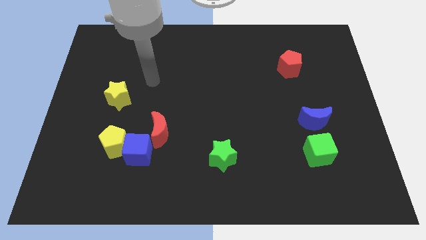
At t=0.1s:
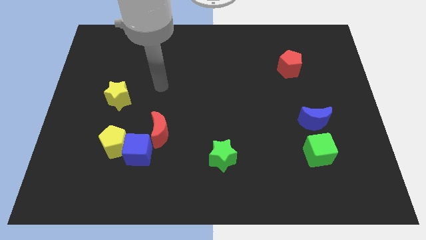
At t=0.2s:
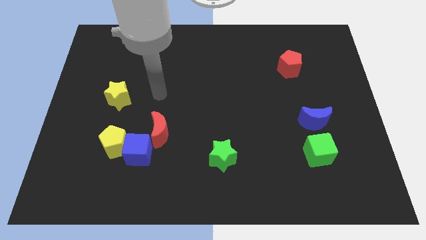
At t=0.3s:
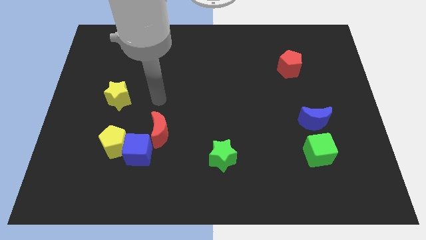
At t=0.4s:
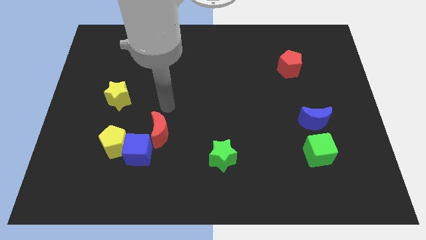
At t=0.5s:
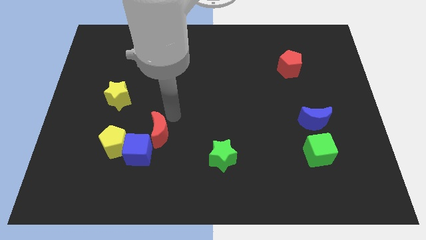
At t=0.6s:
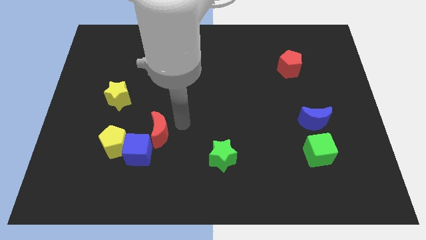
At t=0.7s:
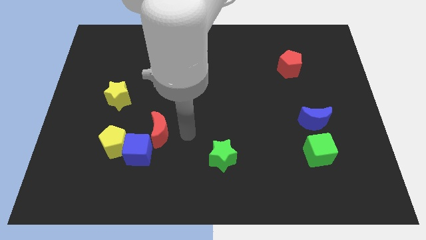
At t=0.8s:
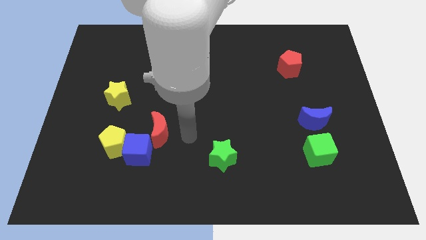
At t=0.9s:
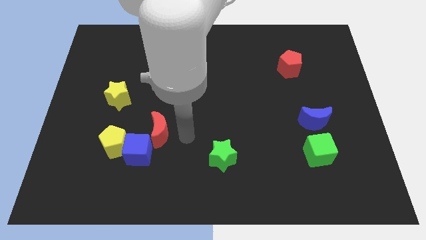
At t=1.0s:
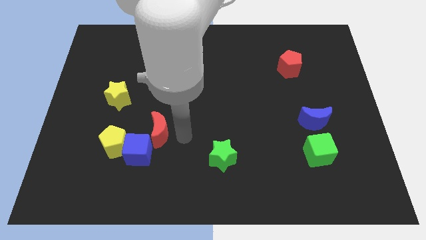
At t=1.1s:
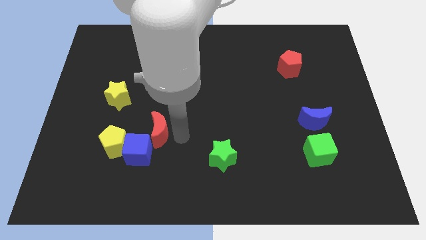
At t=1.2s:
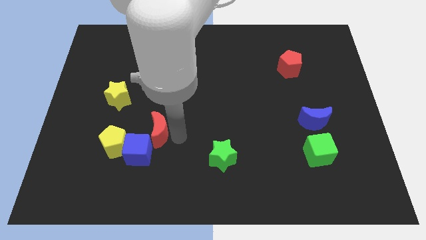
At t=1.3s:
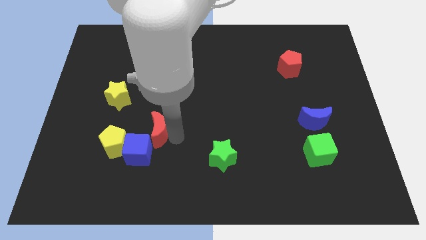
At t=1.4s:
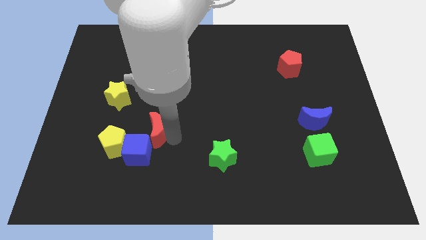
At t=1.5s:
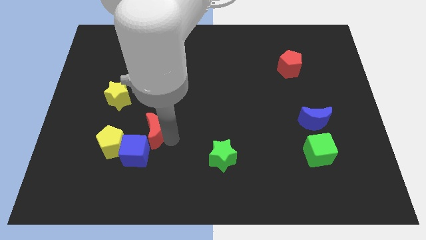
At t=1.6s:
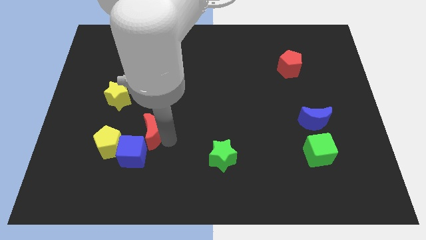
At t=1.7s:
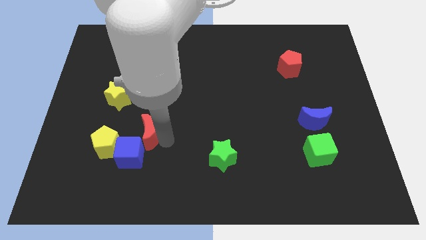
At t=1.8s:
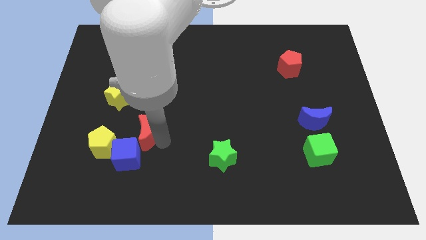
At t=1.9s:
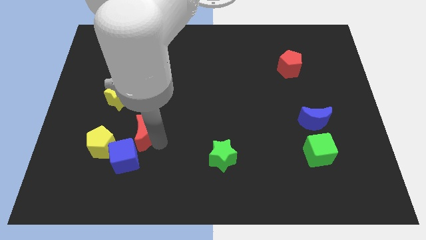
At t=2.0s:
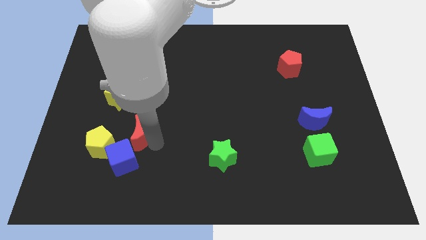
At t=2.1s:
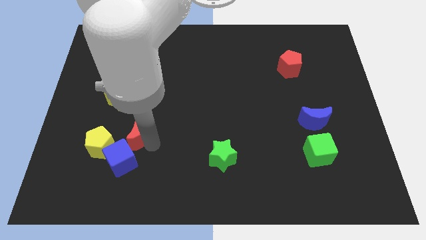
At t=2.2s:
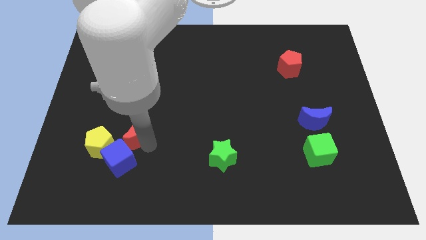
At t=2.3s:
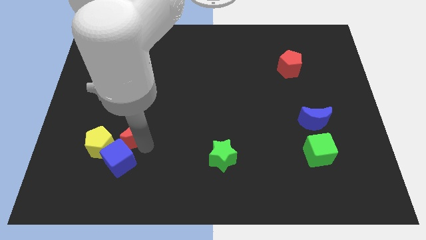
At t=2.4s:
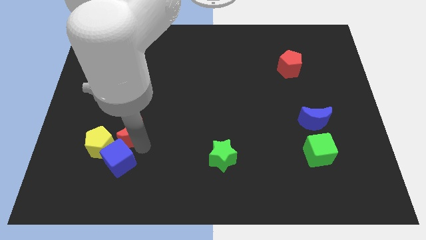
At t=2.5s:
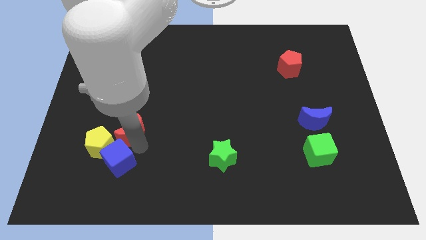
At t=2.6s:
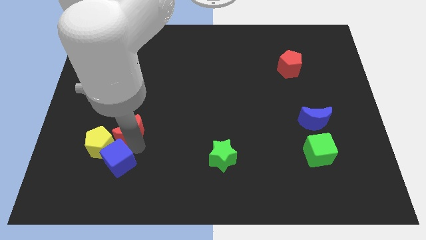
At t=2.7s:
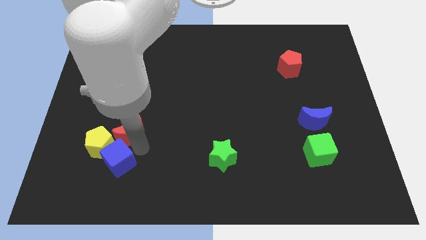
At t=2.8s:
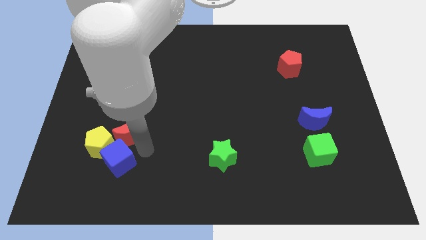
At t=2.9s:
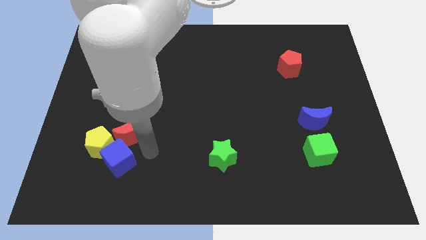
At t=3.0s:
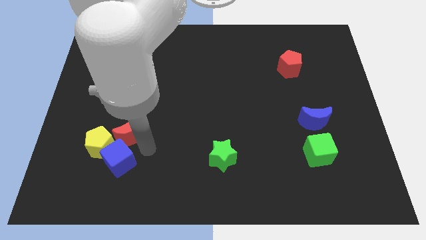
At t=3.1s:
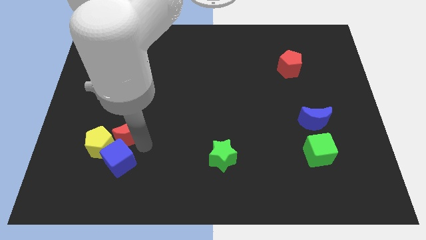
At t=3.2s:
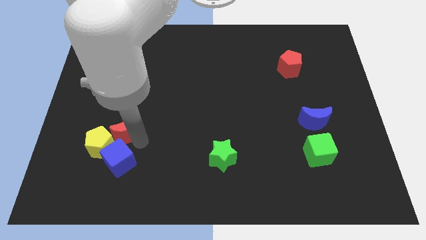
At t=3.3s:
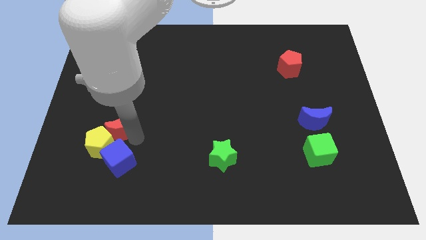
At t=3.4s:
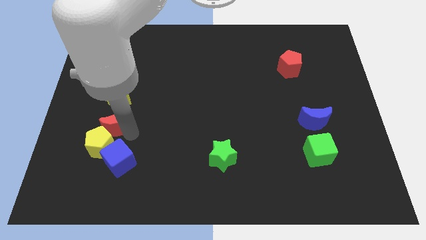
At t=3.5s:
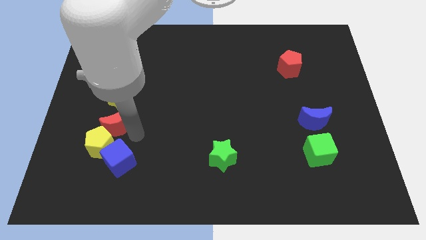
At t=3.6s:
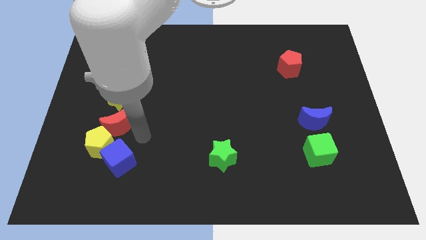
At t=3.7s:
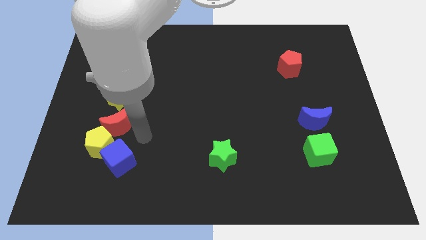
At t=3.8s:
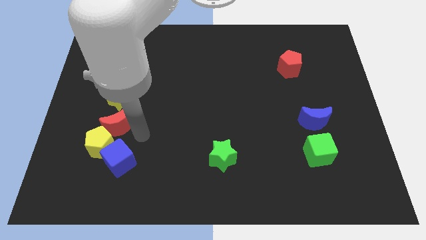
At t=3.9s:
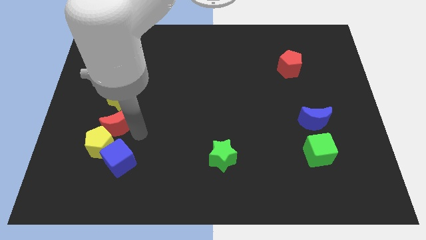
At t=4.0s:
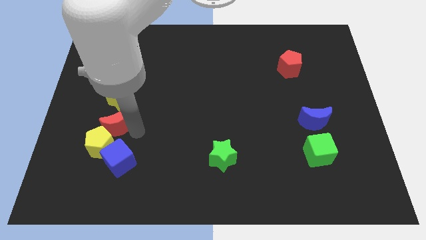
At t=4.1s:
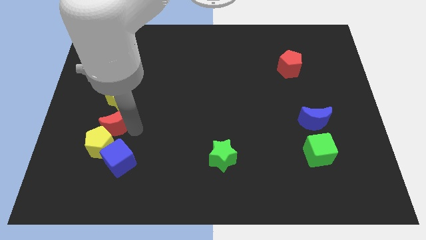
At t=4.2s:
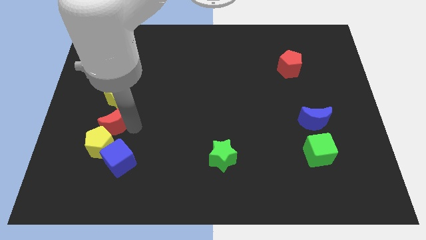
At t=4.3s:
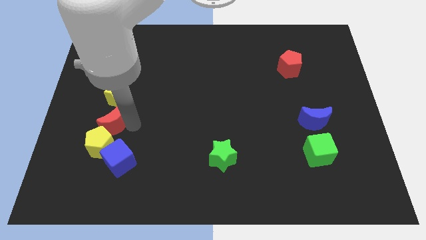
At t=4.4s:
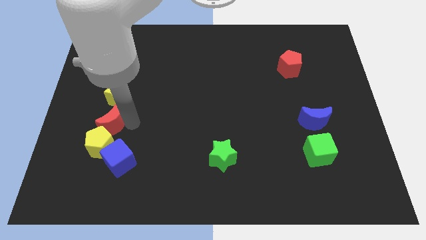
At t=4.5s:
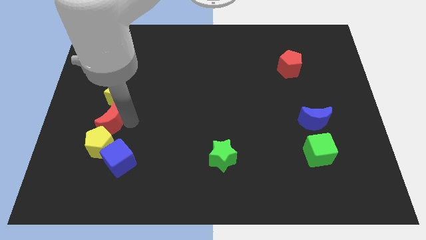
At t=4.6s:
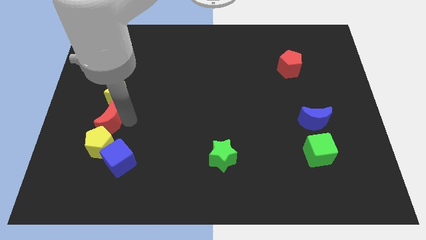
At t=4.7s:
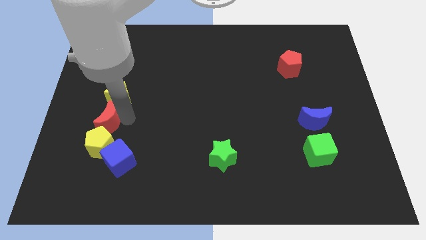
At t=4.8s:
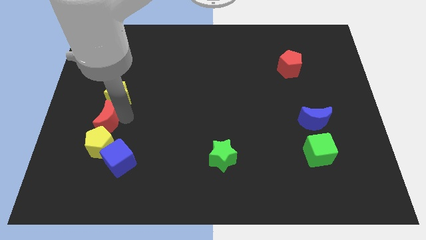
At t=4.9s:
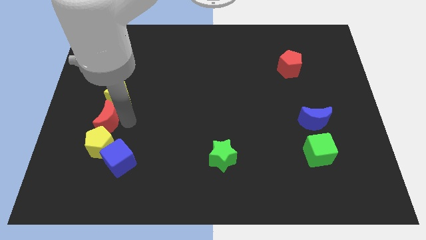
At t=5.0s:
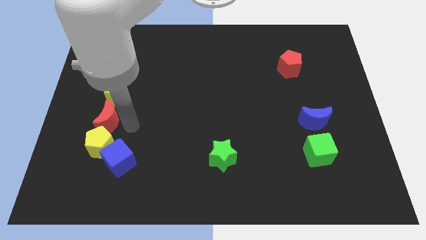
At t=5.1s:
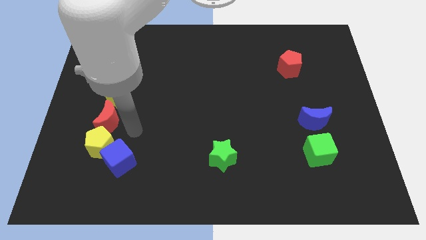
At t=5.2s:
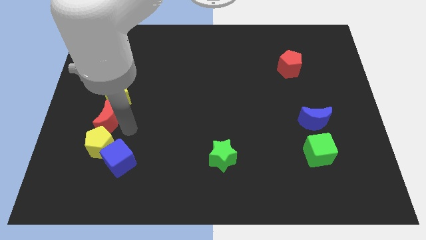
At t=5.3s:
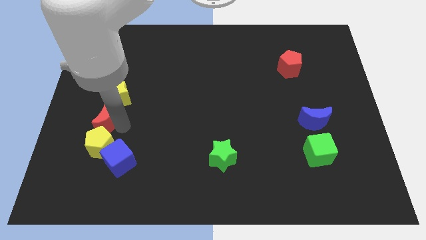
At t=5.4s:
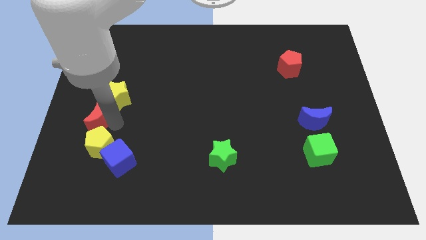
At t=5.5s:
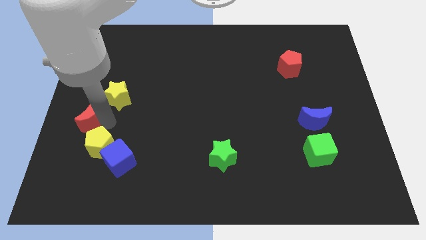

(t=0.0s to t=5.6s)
put the red moon to the left side of the board

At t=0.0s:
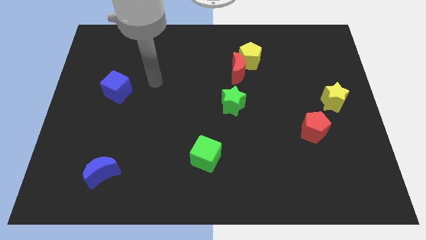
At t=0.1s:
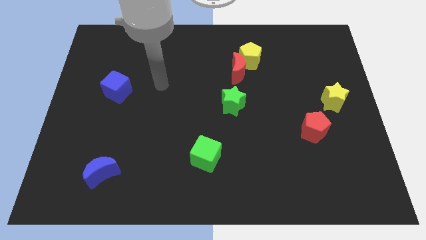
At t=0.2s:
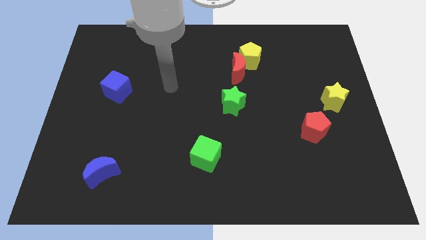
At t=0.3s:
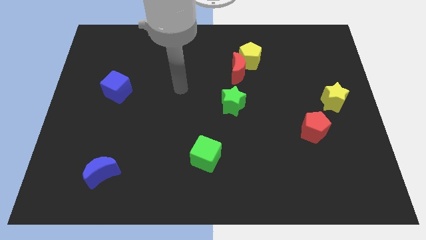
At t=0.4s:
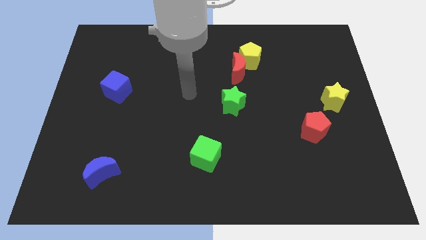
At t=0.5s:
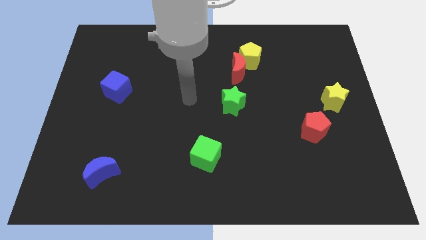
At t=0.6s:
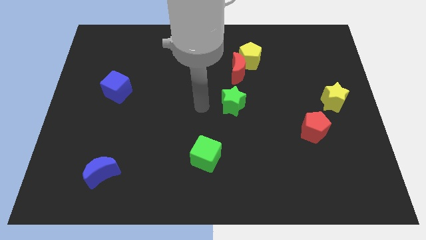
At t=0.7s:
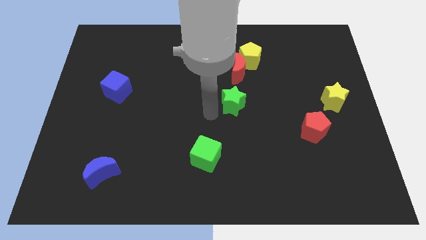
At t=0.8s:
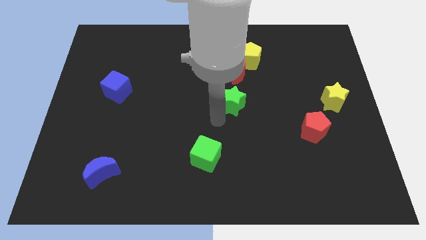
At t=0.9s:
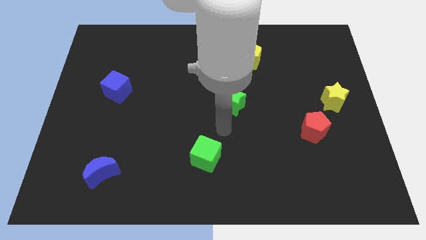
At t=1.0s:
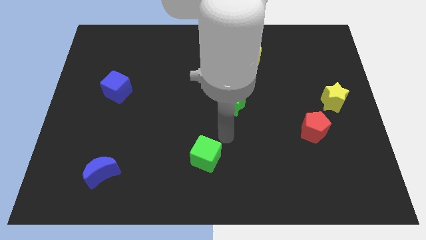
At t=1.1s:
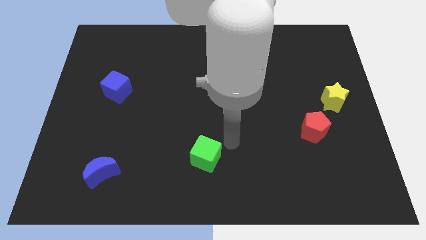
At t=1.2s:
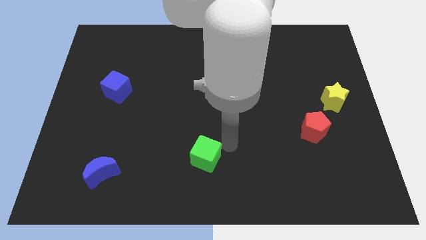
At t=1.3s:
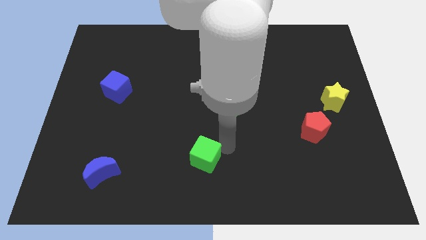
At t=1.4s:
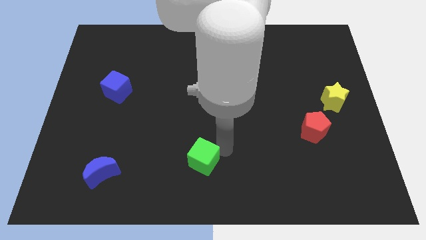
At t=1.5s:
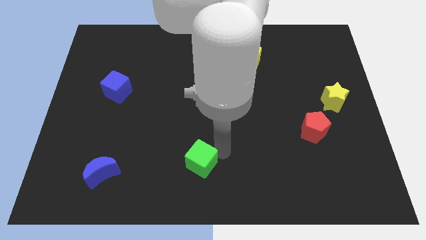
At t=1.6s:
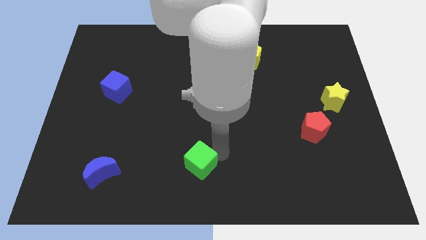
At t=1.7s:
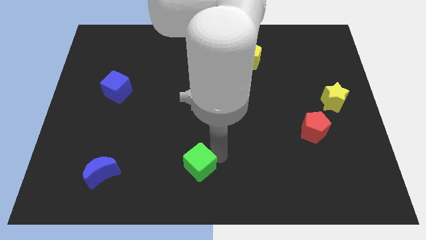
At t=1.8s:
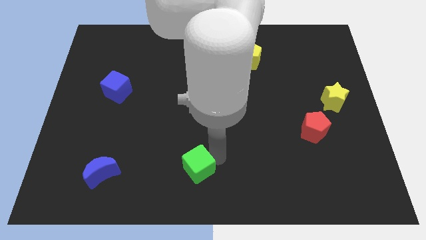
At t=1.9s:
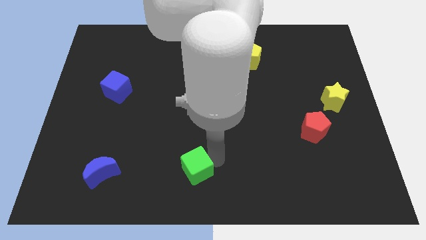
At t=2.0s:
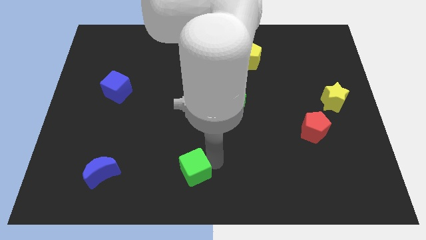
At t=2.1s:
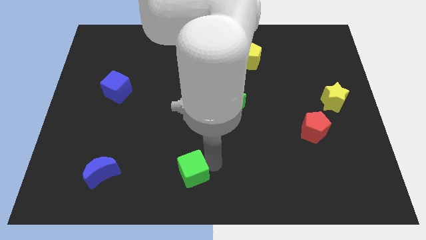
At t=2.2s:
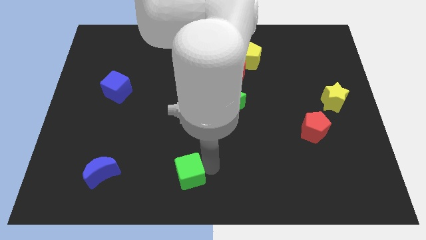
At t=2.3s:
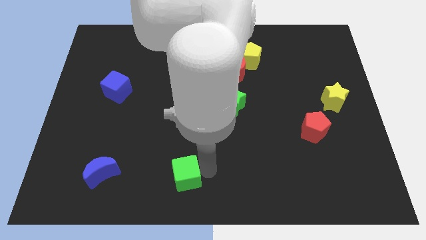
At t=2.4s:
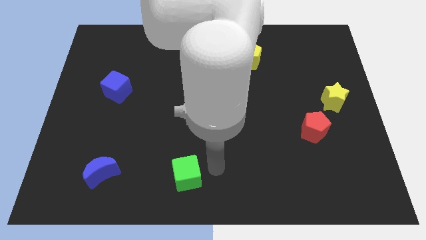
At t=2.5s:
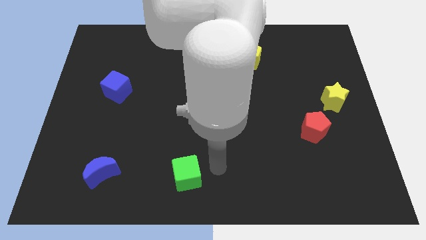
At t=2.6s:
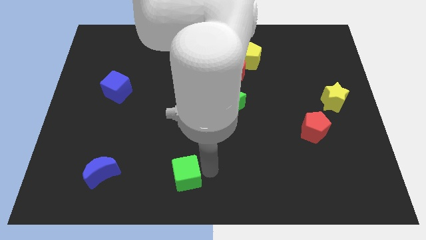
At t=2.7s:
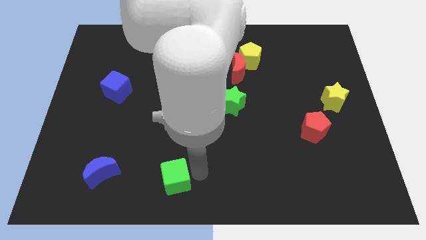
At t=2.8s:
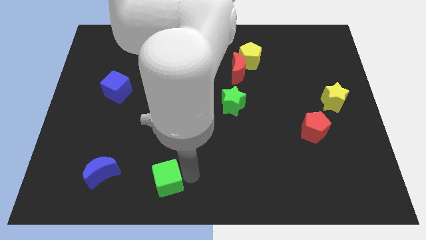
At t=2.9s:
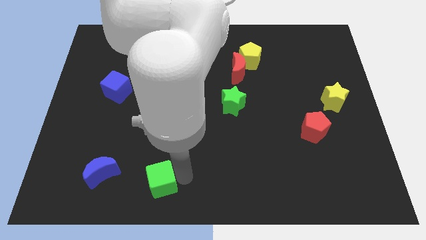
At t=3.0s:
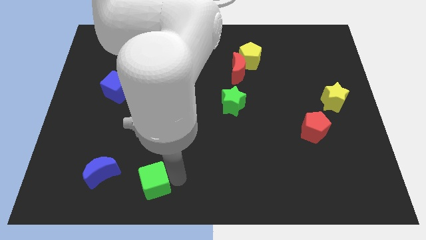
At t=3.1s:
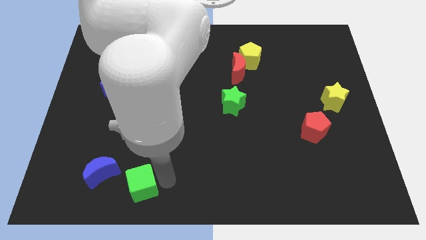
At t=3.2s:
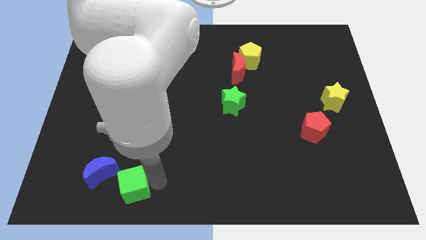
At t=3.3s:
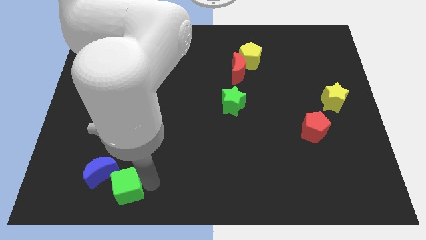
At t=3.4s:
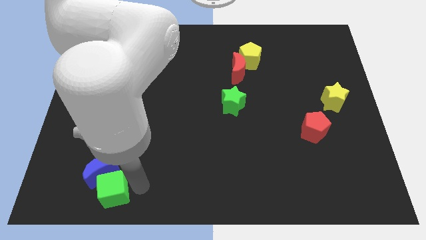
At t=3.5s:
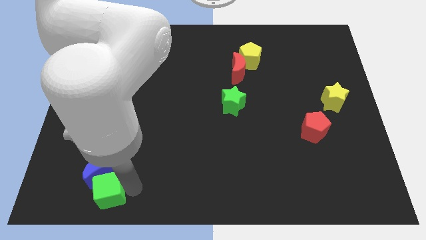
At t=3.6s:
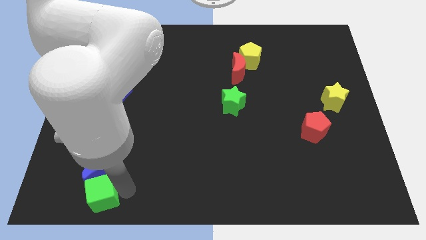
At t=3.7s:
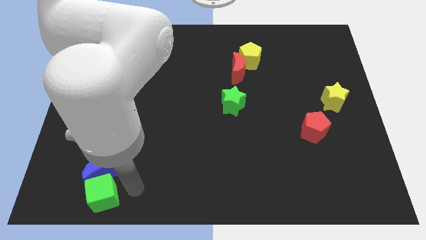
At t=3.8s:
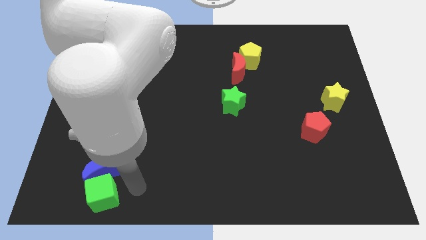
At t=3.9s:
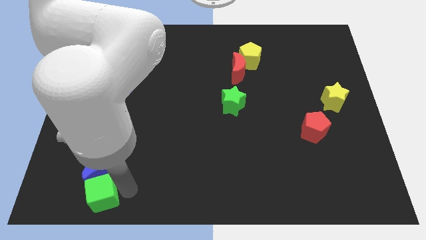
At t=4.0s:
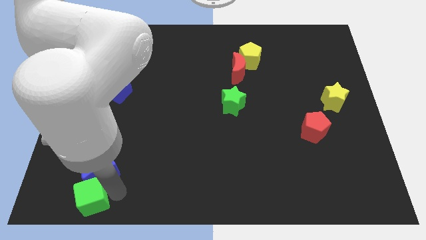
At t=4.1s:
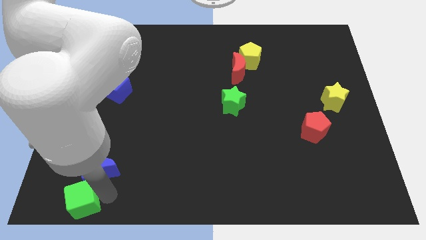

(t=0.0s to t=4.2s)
push the green cube to the bottom left
